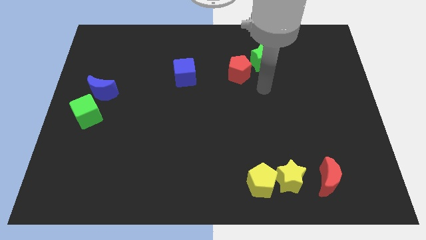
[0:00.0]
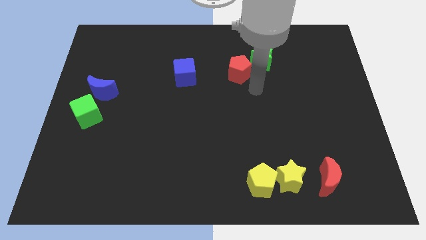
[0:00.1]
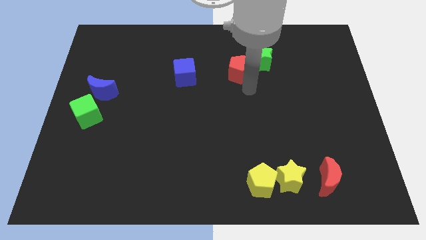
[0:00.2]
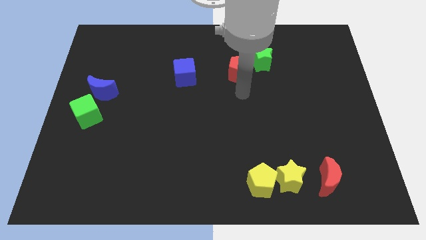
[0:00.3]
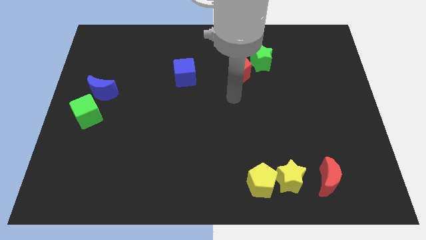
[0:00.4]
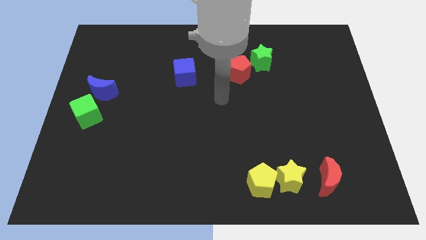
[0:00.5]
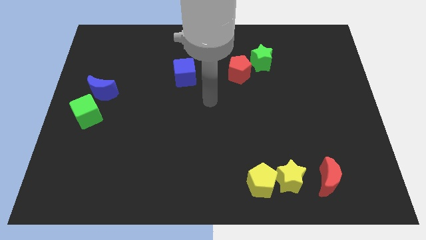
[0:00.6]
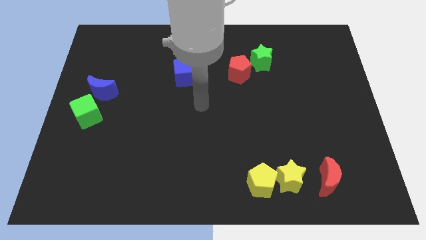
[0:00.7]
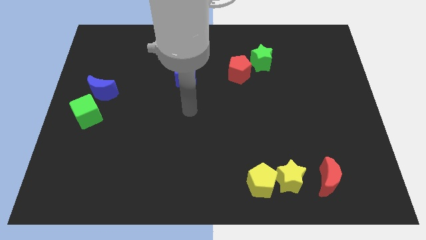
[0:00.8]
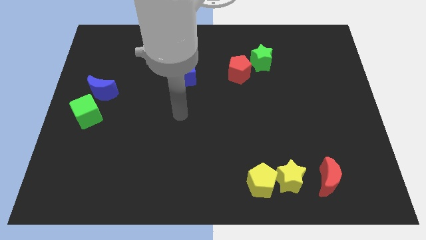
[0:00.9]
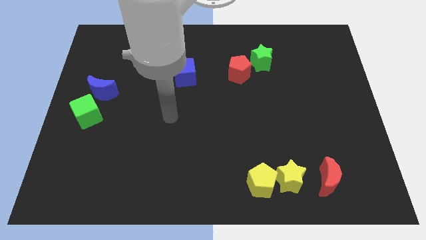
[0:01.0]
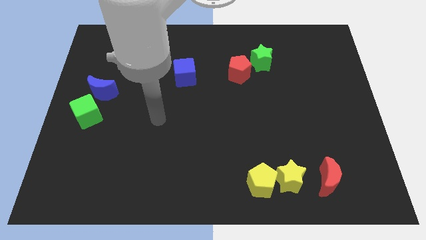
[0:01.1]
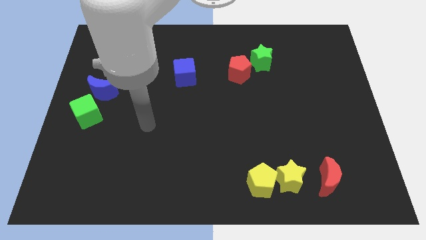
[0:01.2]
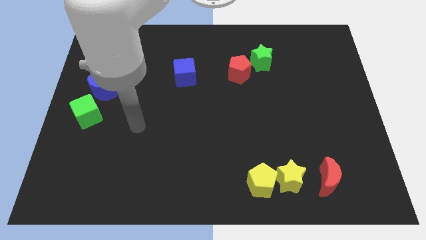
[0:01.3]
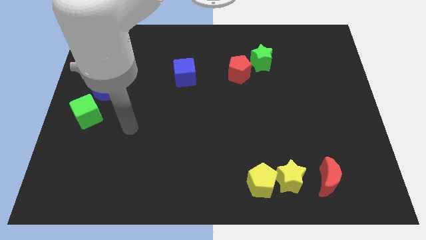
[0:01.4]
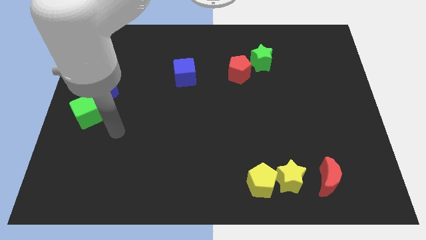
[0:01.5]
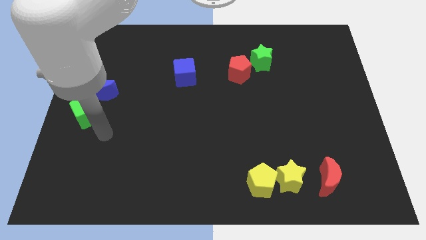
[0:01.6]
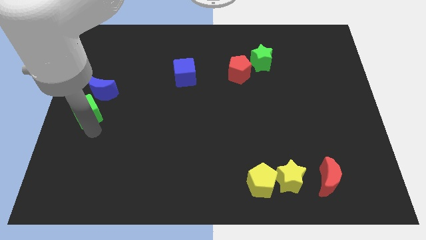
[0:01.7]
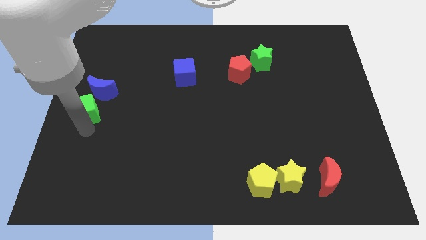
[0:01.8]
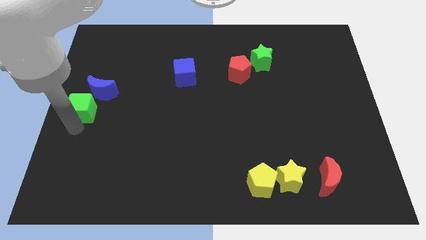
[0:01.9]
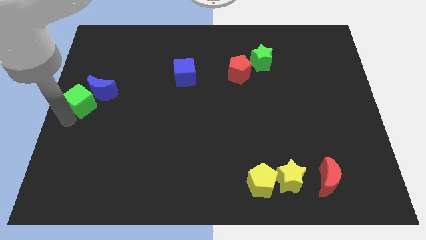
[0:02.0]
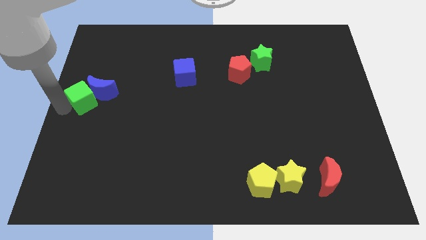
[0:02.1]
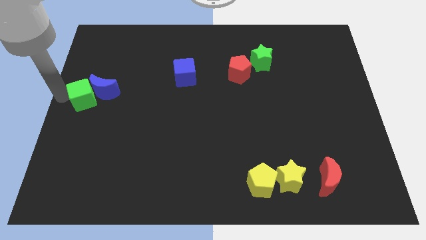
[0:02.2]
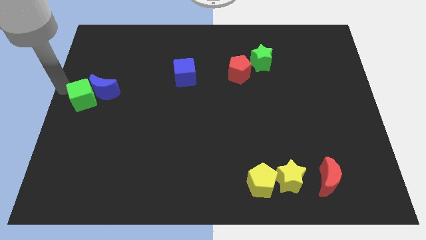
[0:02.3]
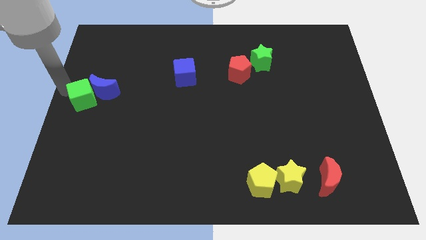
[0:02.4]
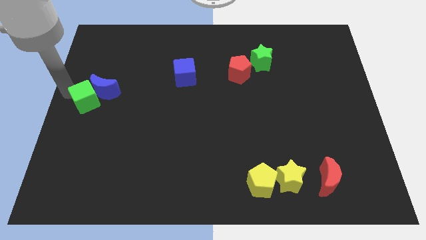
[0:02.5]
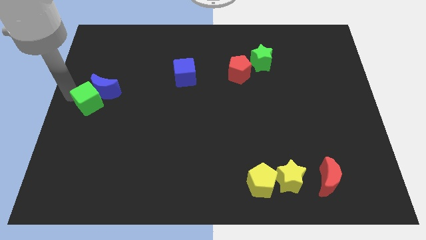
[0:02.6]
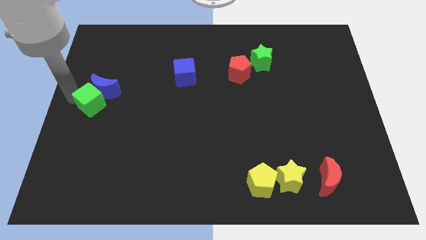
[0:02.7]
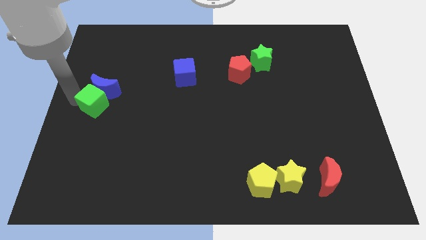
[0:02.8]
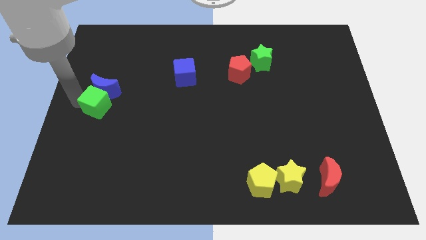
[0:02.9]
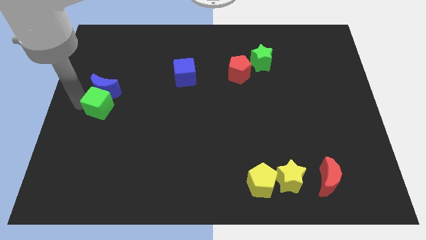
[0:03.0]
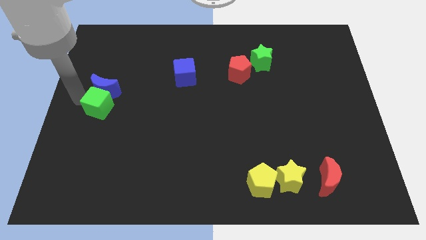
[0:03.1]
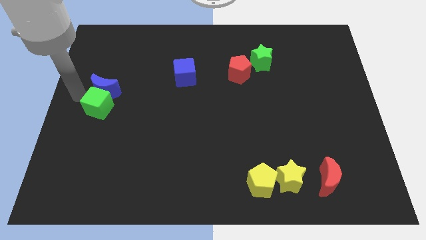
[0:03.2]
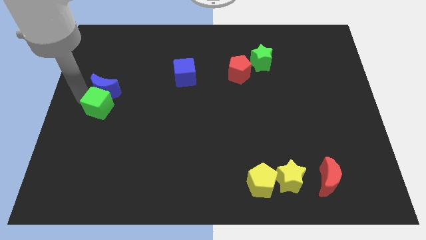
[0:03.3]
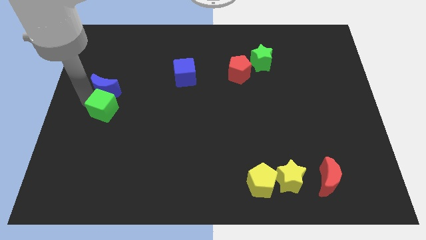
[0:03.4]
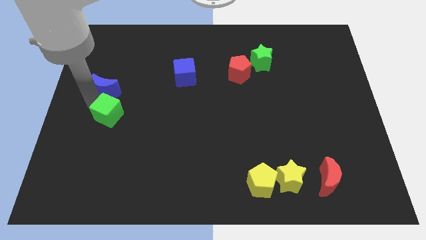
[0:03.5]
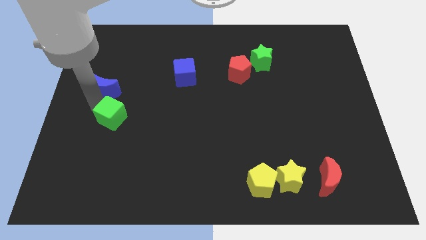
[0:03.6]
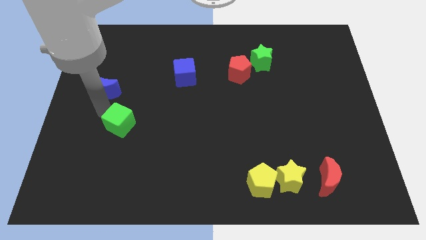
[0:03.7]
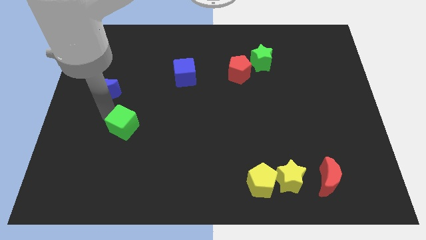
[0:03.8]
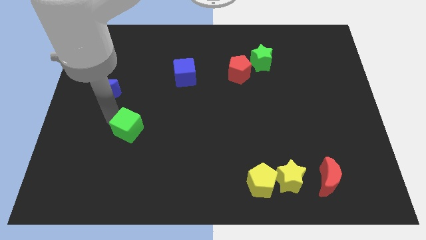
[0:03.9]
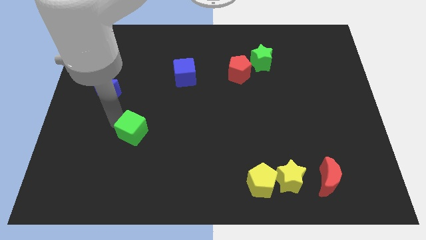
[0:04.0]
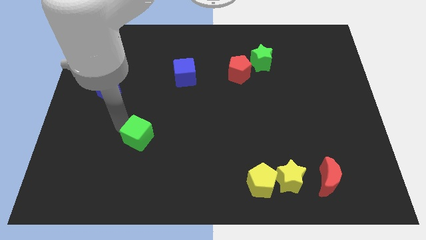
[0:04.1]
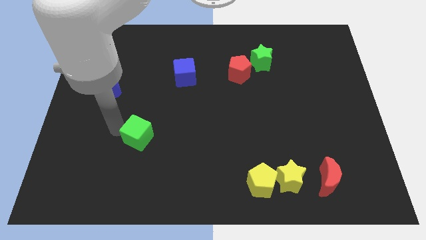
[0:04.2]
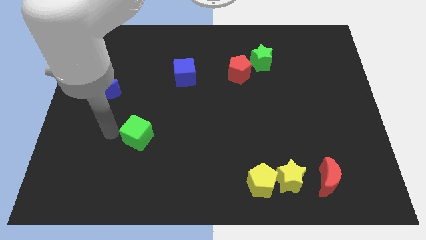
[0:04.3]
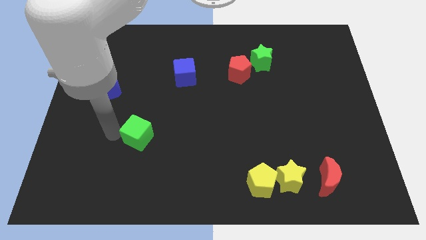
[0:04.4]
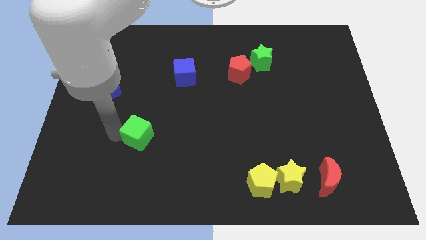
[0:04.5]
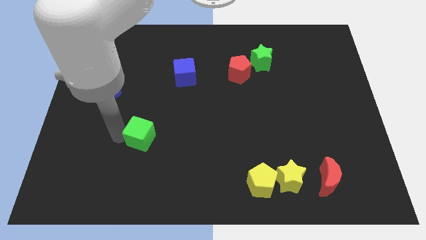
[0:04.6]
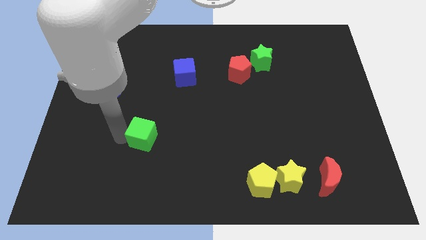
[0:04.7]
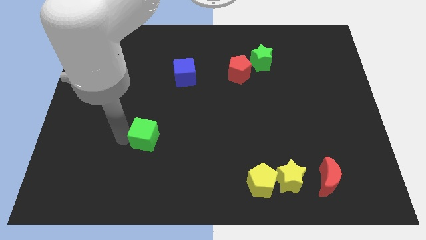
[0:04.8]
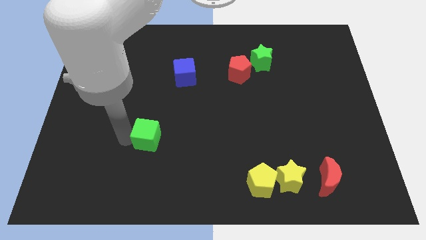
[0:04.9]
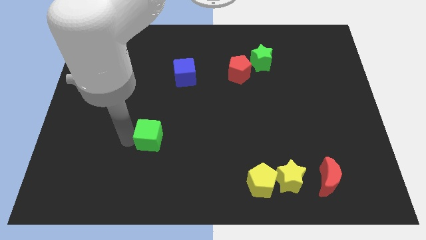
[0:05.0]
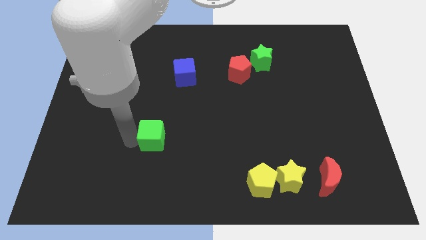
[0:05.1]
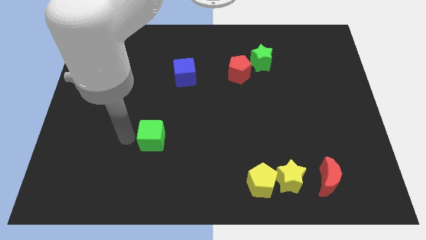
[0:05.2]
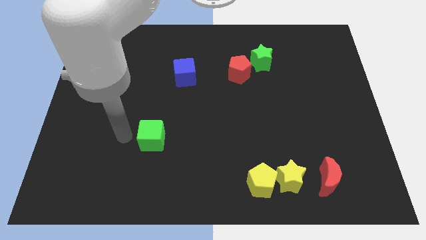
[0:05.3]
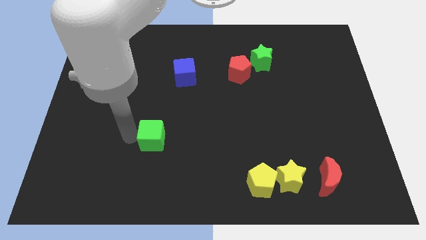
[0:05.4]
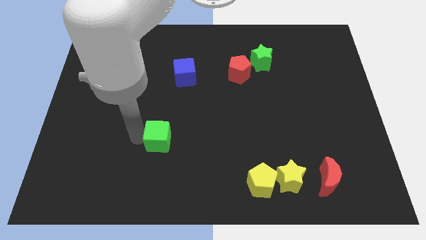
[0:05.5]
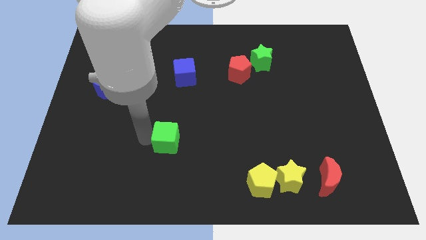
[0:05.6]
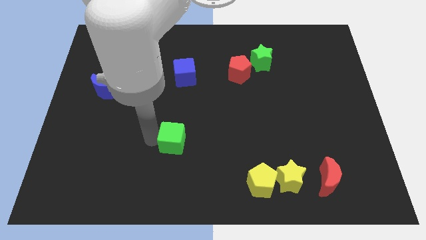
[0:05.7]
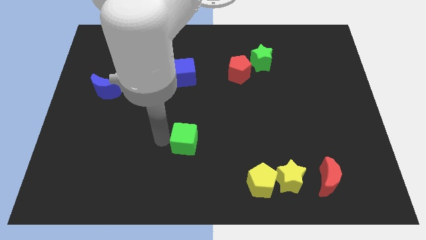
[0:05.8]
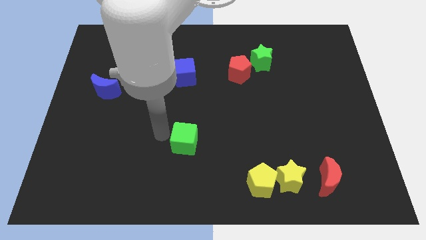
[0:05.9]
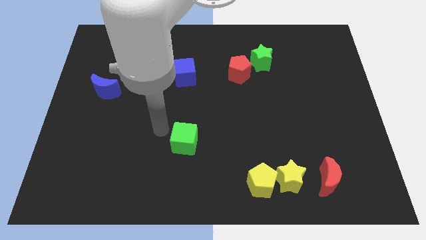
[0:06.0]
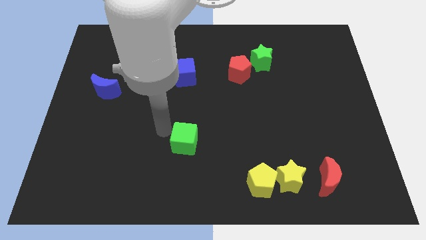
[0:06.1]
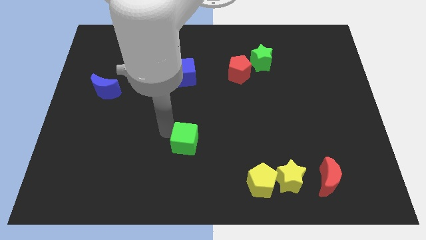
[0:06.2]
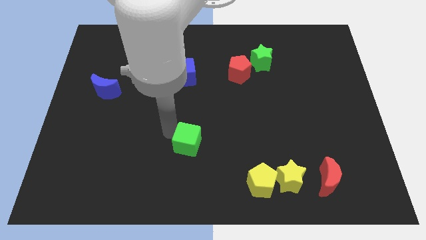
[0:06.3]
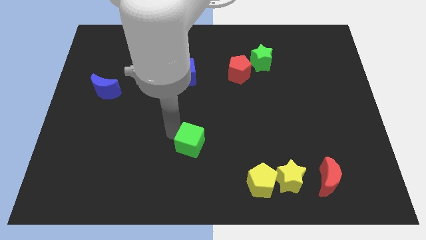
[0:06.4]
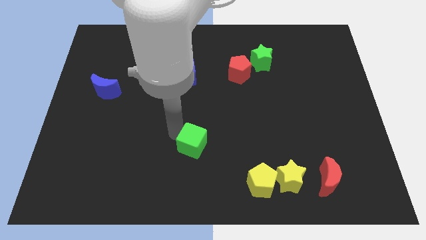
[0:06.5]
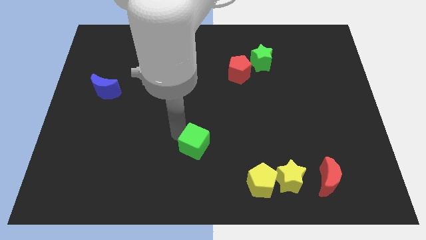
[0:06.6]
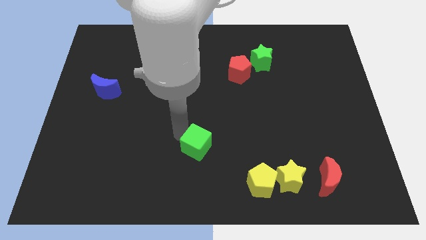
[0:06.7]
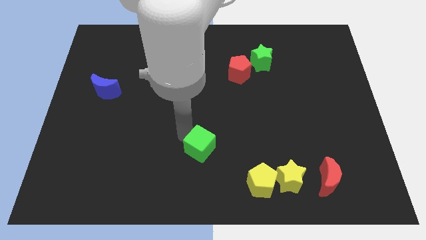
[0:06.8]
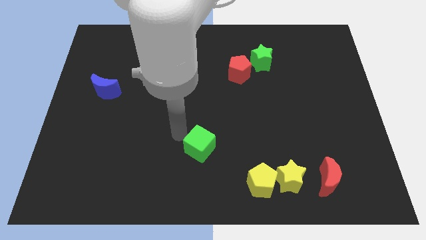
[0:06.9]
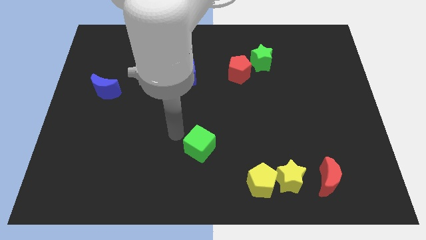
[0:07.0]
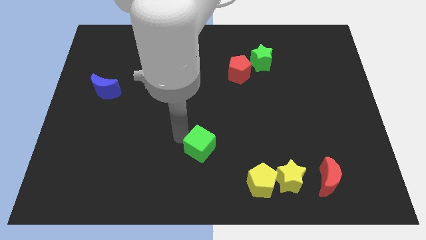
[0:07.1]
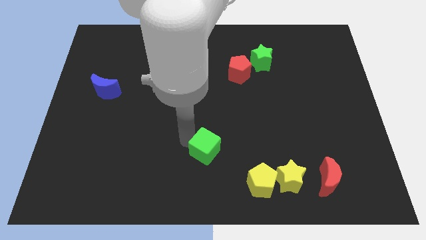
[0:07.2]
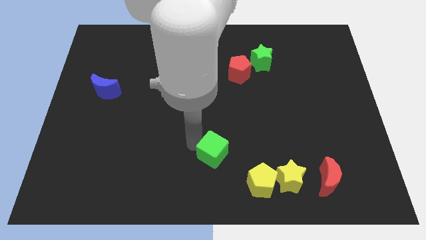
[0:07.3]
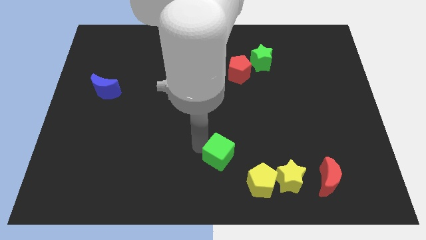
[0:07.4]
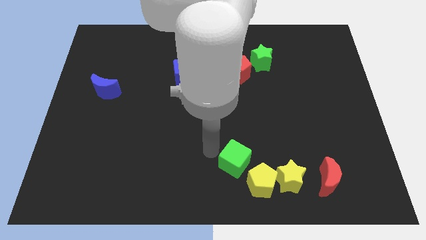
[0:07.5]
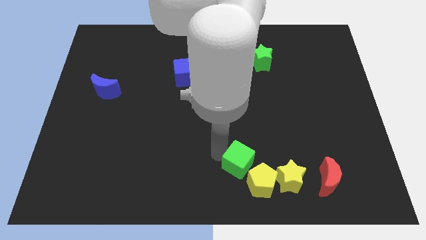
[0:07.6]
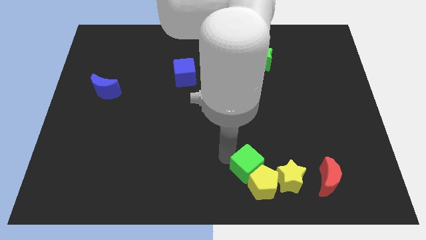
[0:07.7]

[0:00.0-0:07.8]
slide the green cube next to the yellow pentagon
